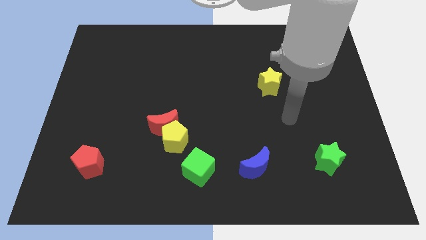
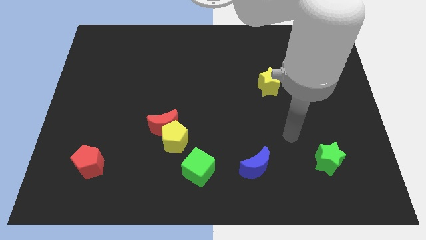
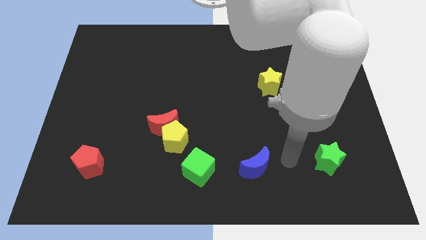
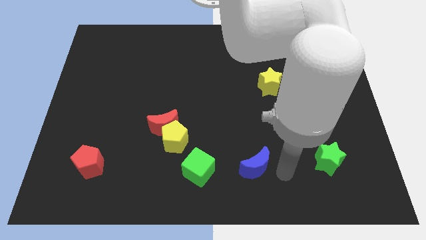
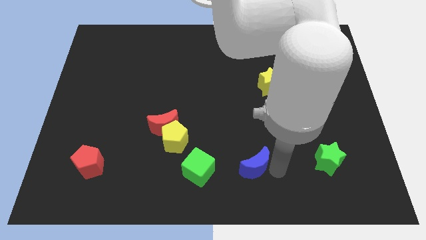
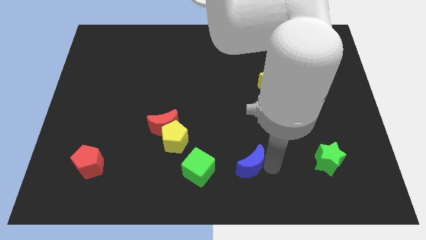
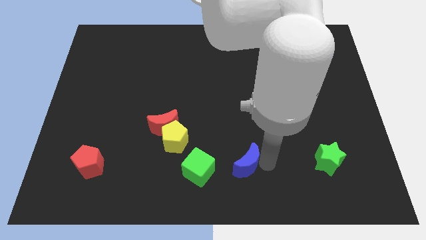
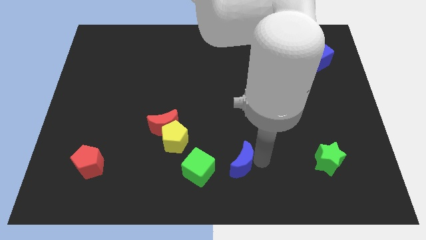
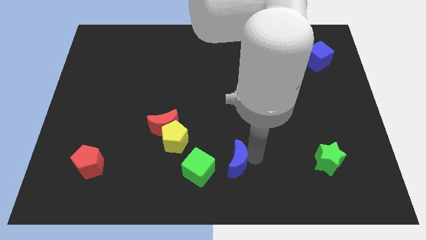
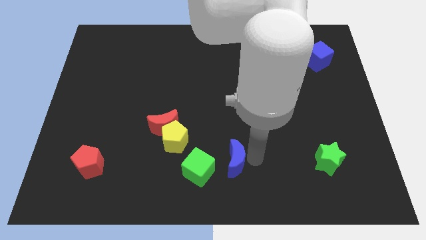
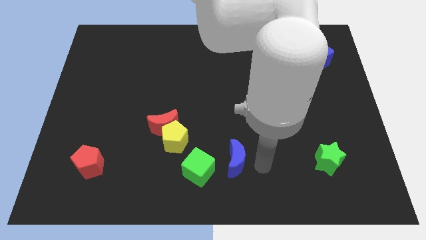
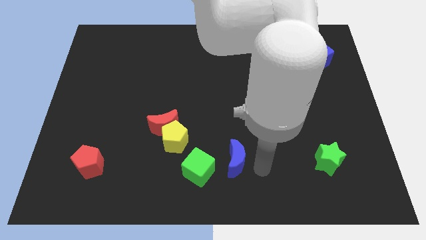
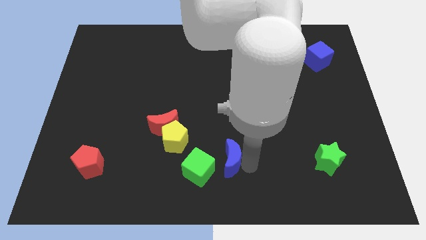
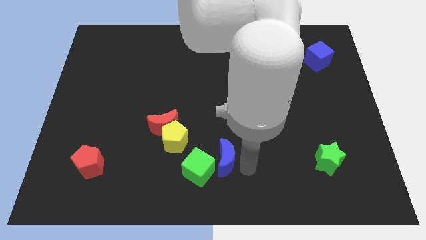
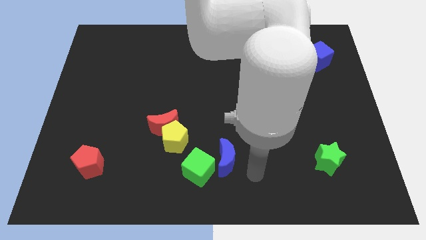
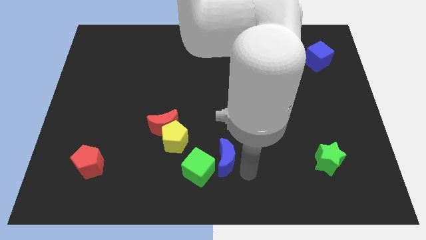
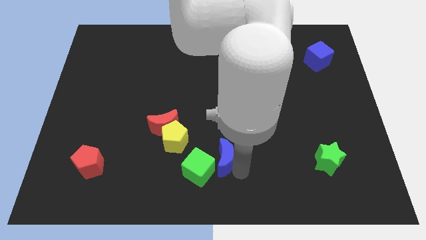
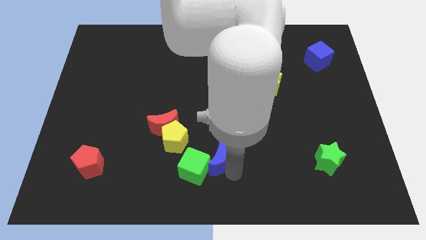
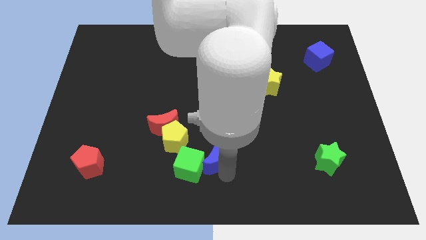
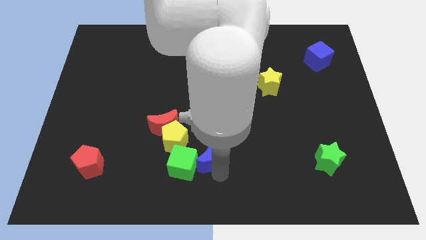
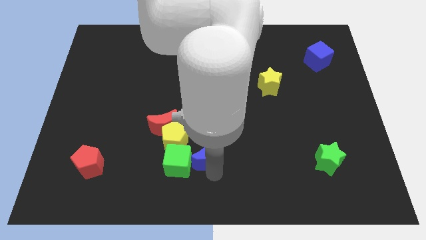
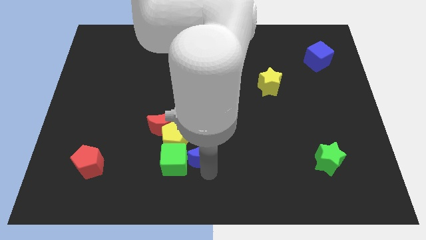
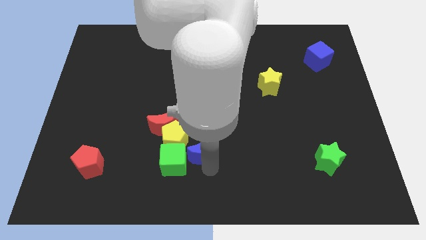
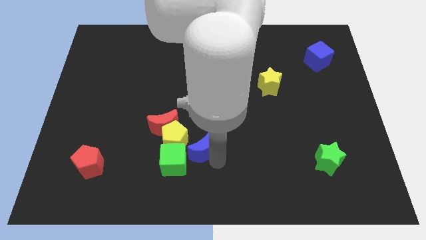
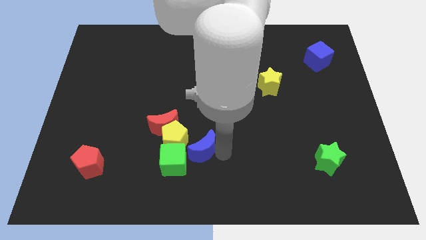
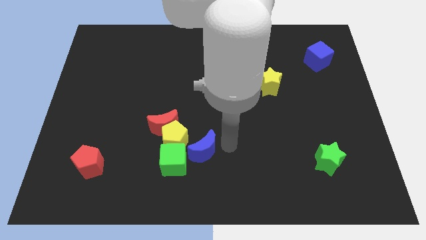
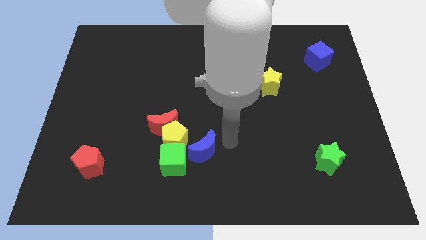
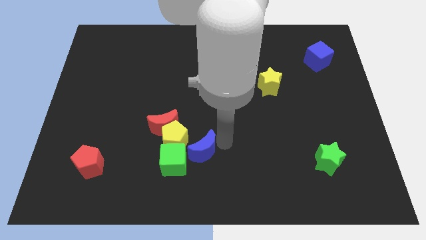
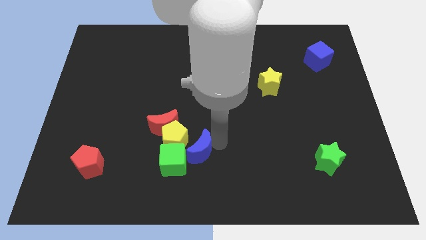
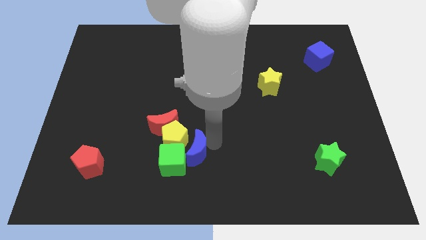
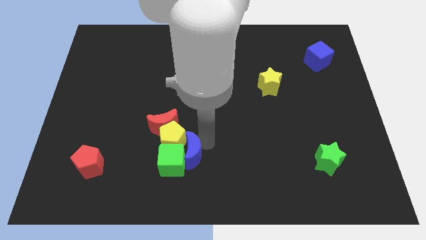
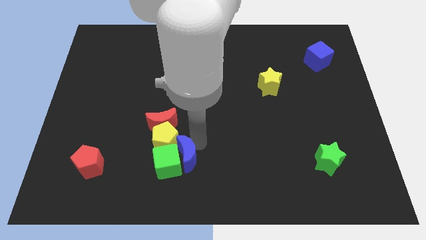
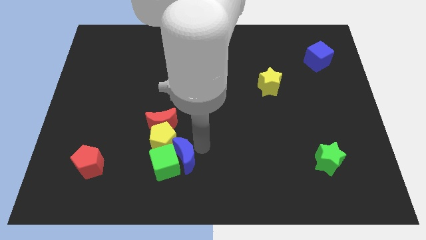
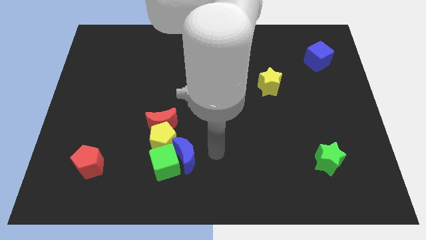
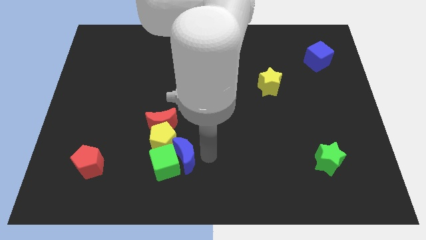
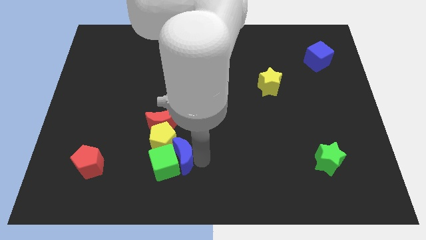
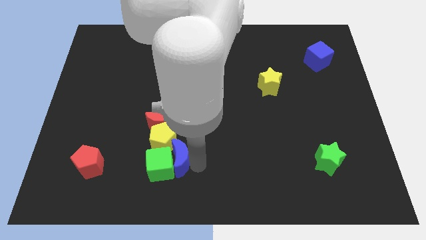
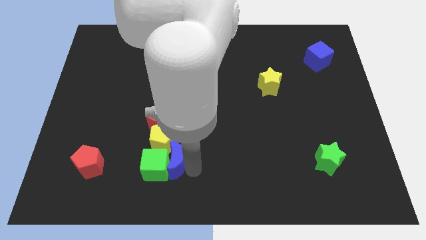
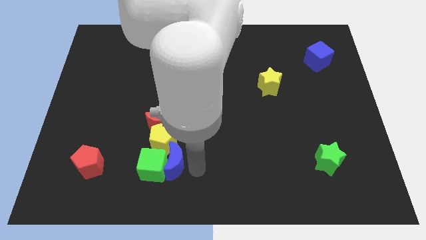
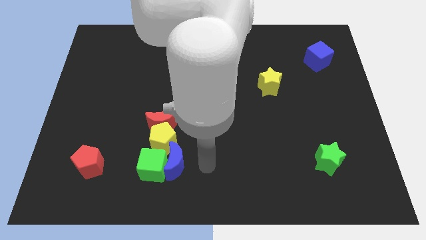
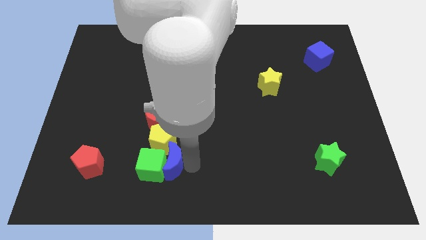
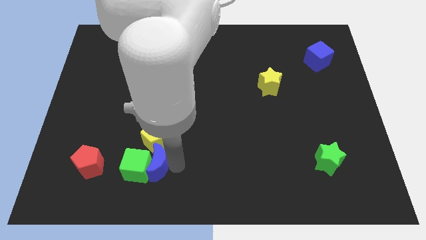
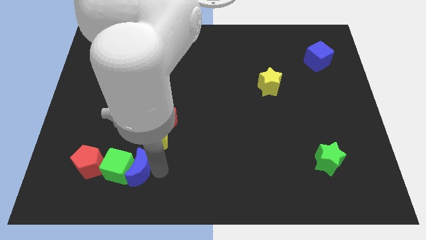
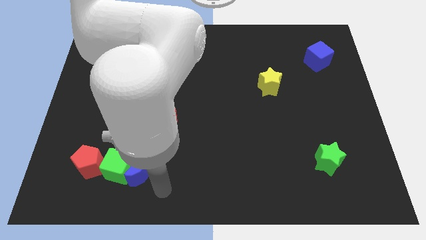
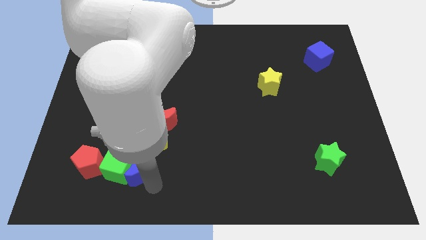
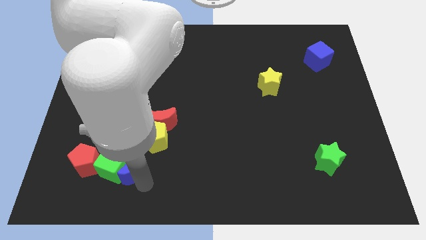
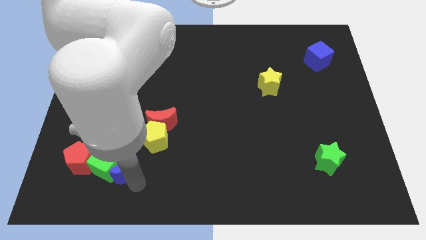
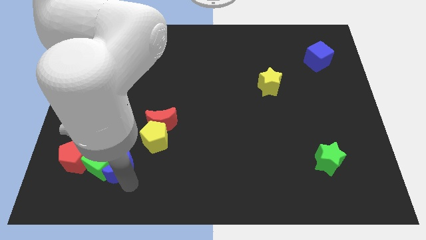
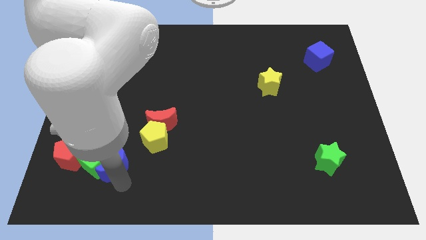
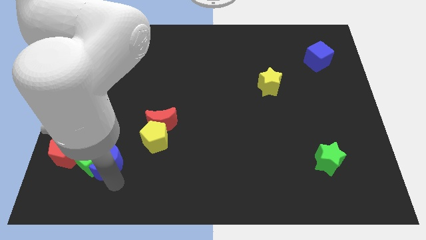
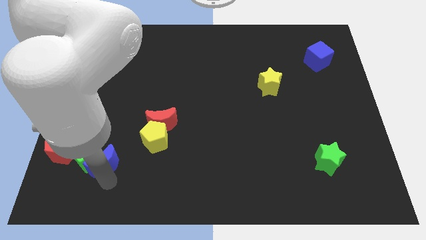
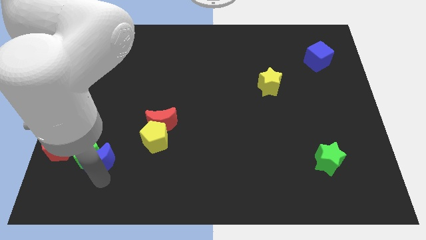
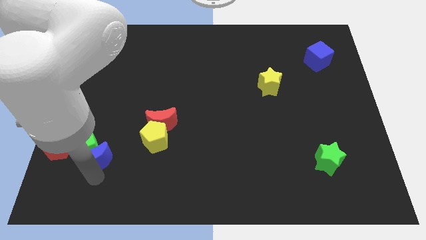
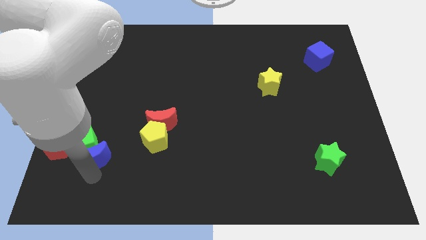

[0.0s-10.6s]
slide the blue moon just left of the yellow pentagon

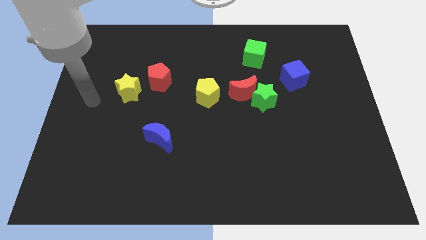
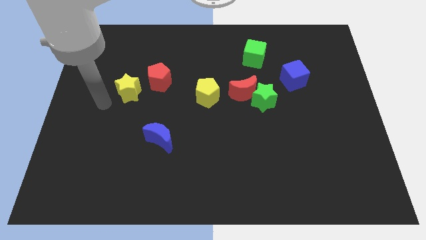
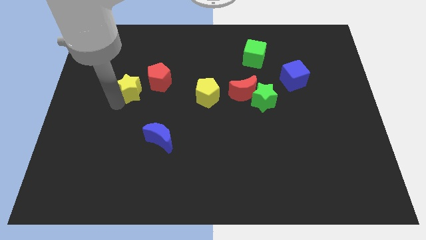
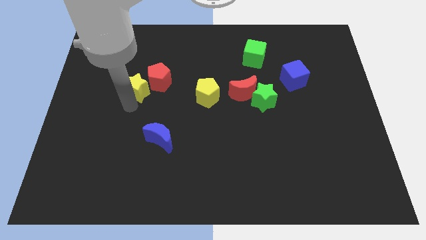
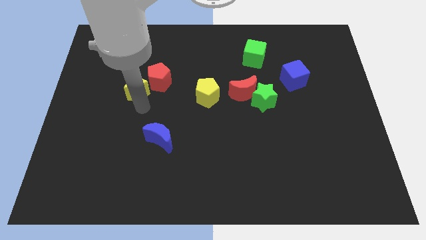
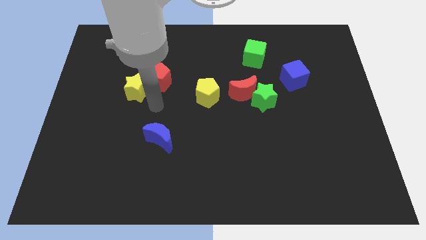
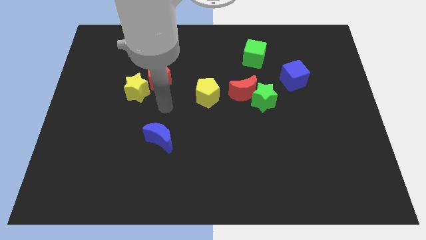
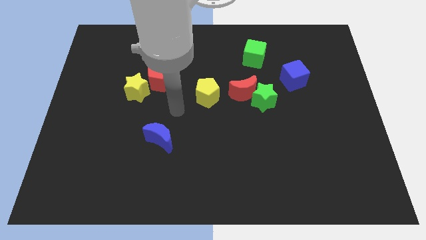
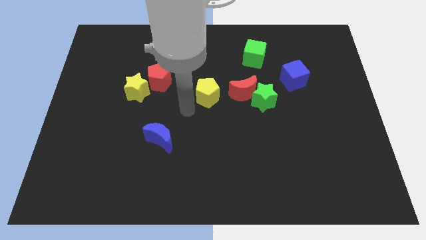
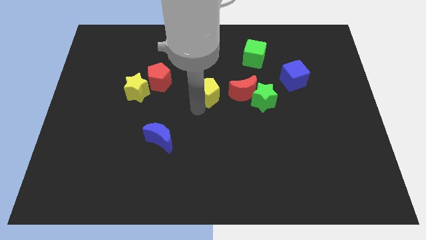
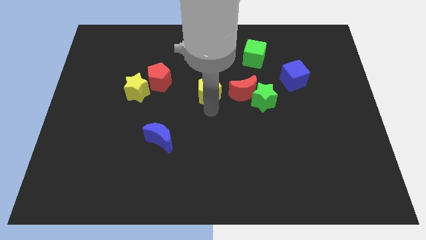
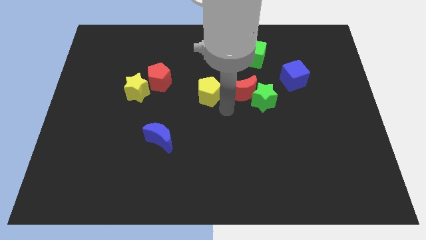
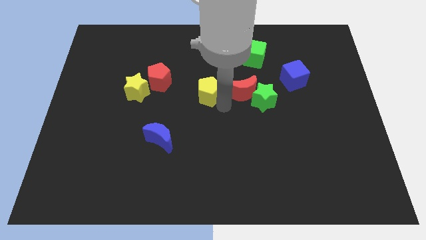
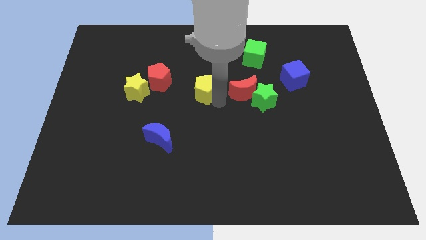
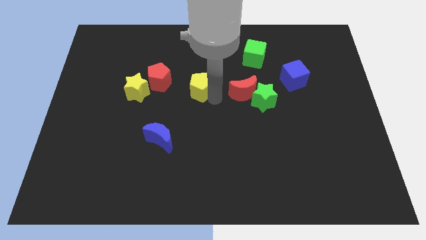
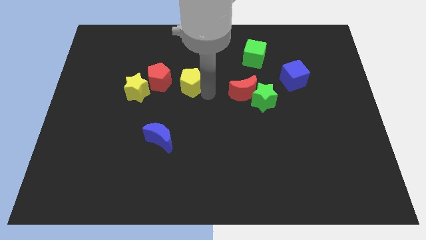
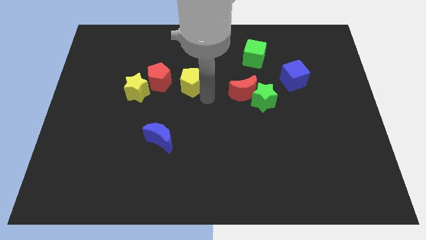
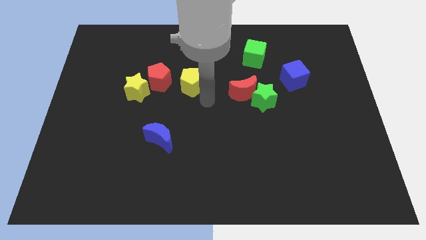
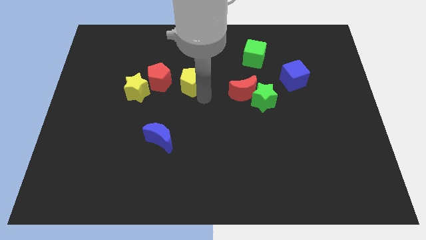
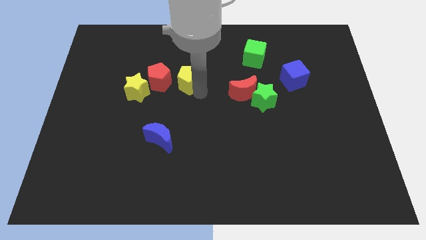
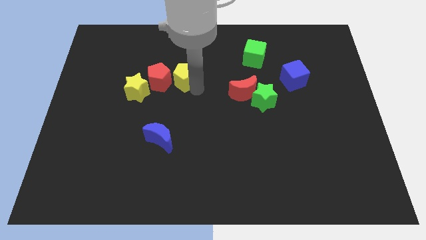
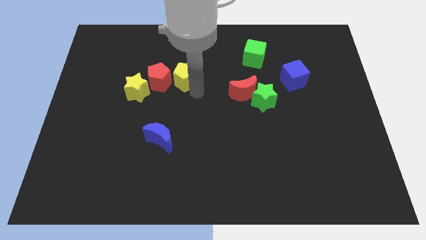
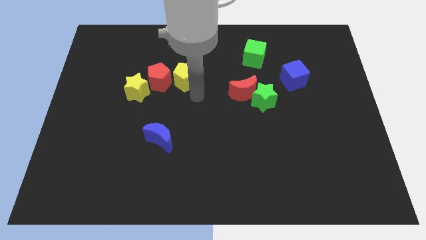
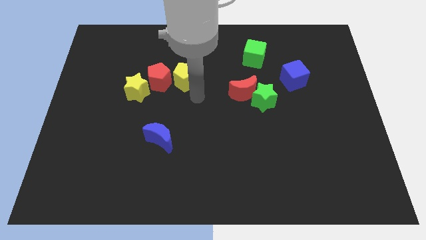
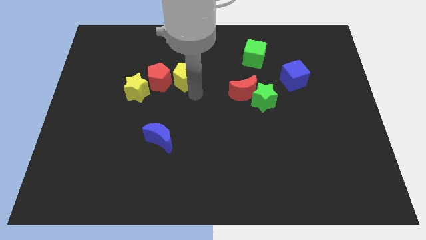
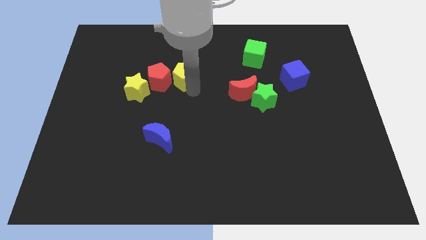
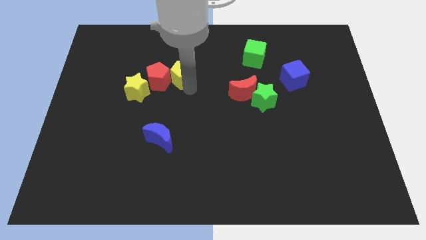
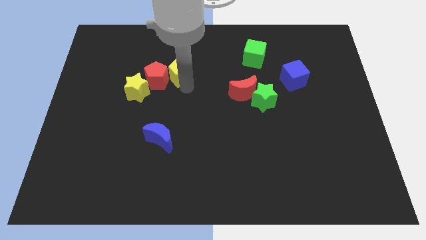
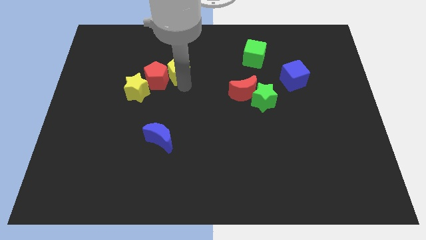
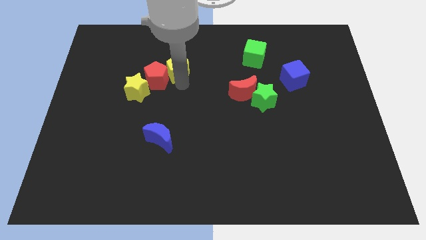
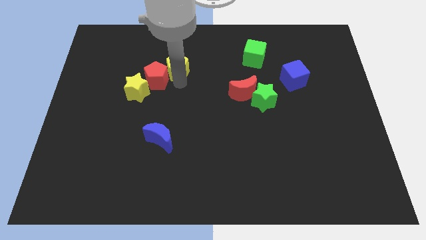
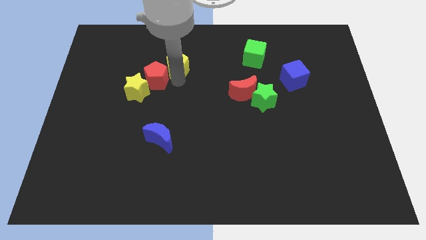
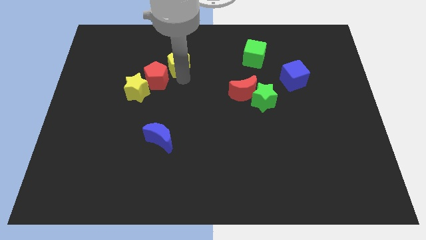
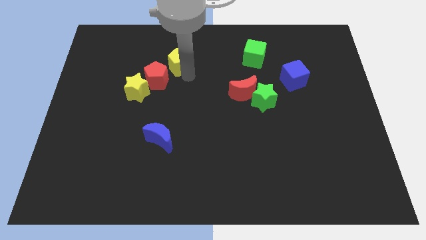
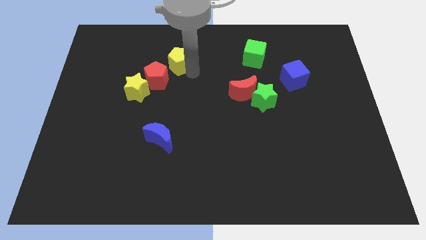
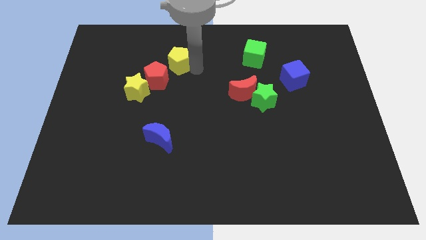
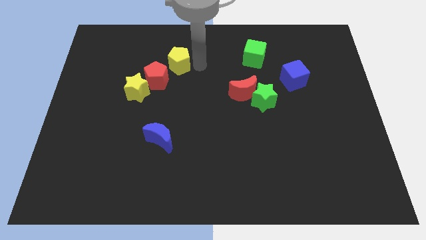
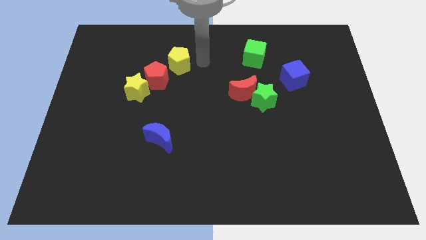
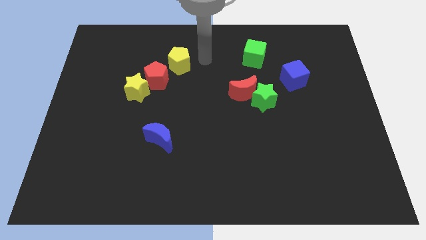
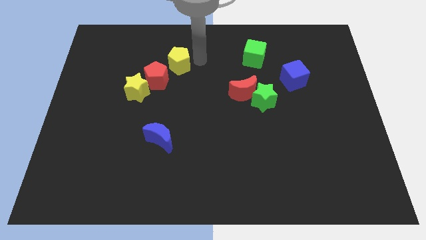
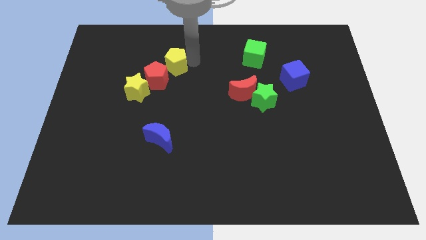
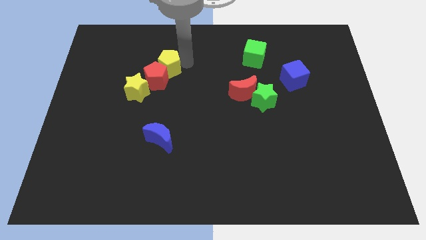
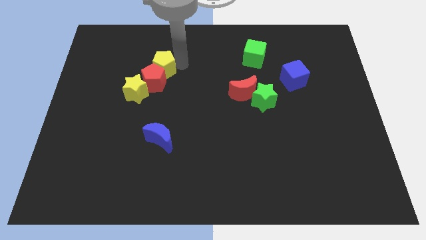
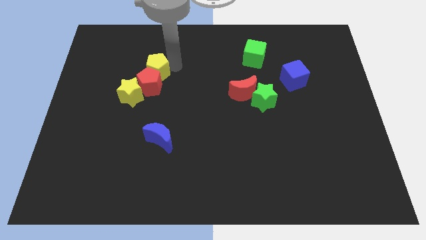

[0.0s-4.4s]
push the yellow pentagon to the top left of the red pentagon
